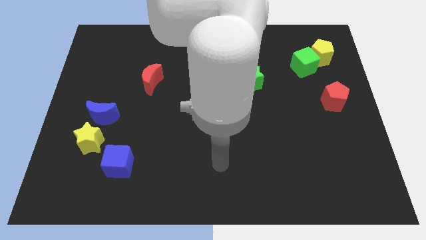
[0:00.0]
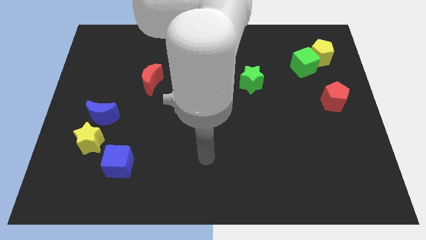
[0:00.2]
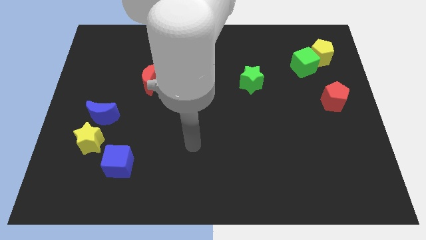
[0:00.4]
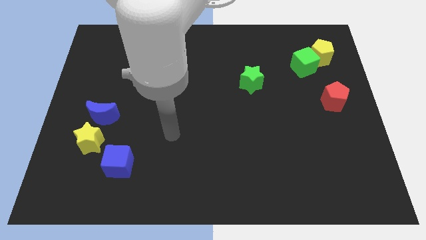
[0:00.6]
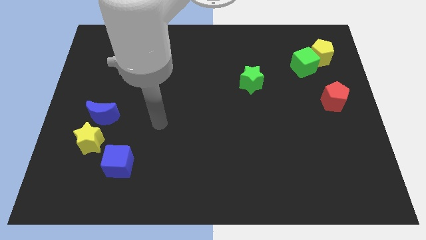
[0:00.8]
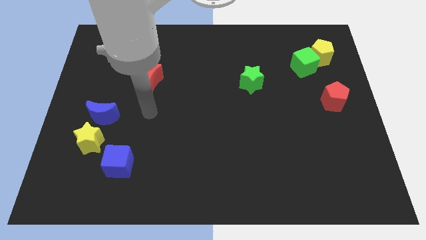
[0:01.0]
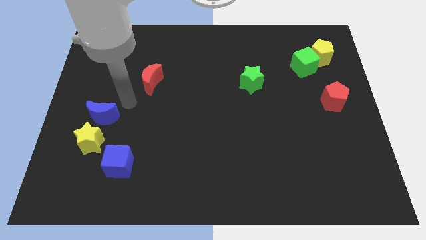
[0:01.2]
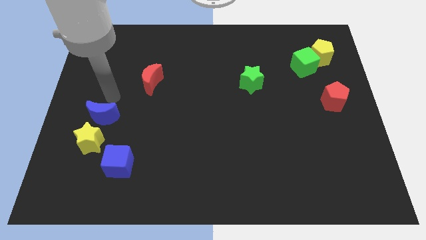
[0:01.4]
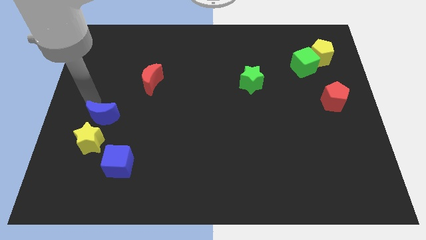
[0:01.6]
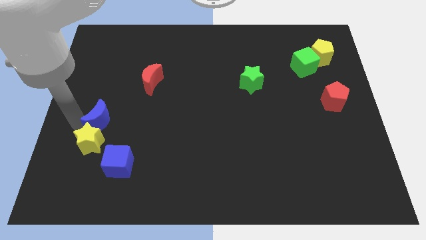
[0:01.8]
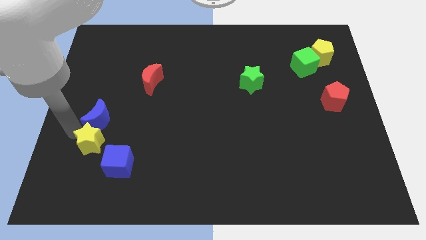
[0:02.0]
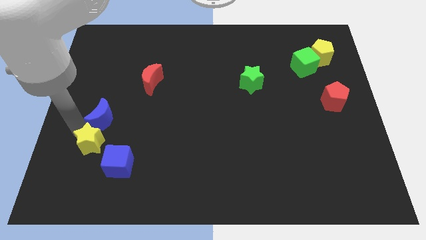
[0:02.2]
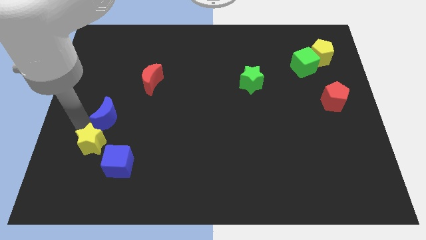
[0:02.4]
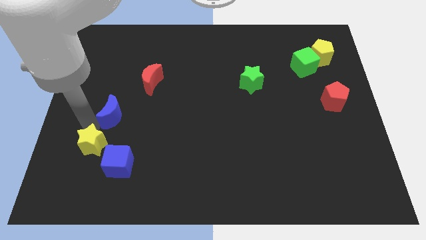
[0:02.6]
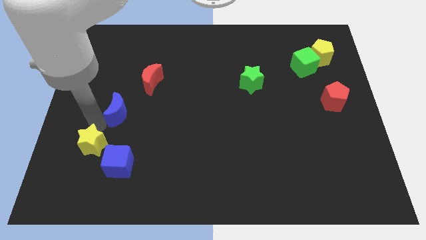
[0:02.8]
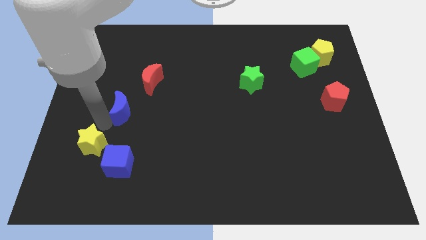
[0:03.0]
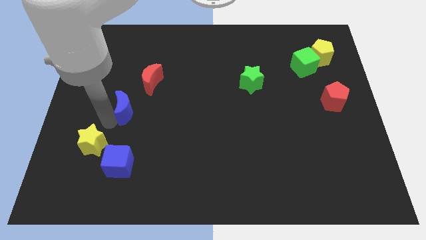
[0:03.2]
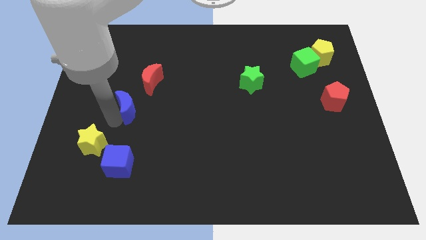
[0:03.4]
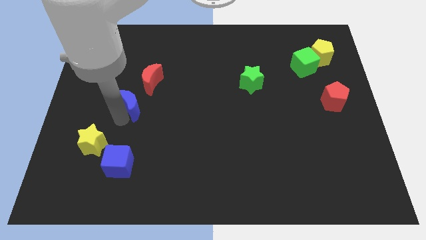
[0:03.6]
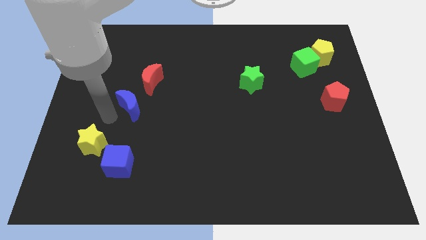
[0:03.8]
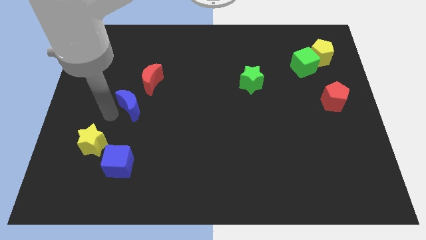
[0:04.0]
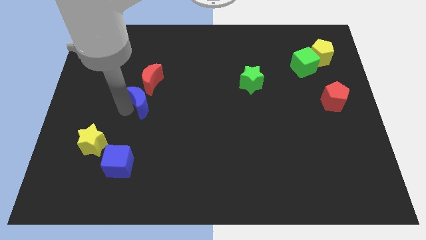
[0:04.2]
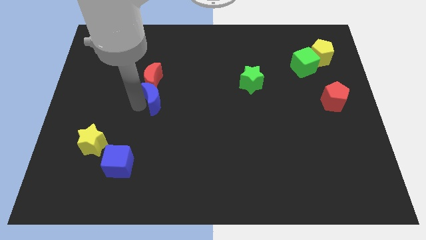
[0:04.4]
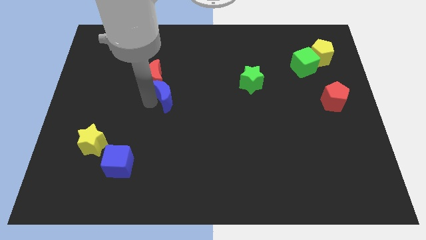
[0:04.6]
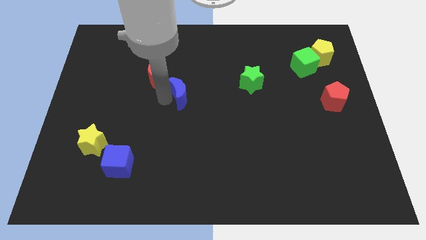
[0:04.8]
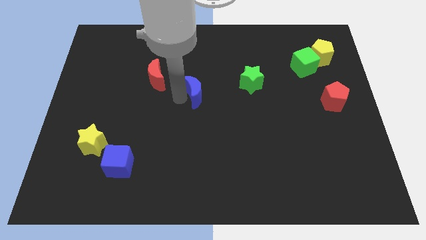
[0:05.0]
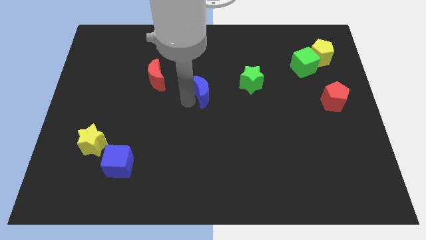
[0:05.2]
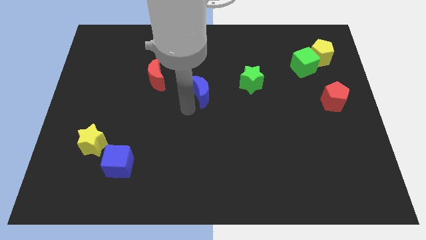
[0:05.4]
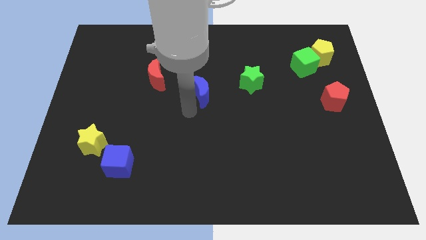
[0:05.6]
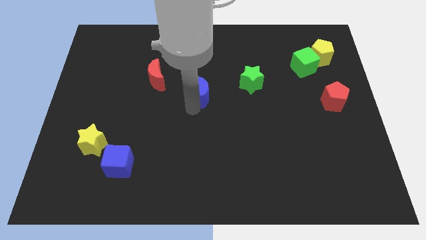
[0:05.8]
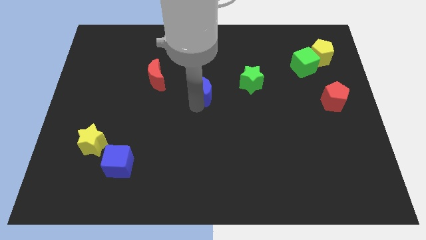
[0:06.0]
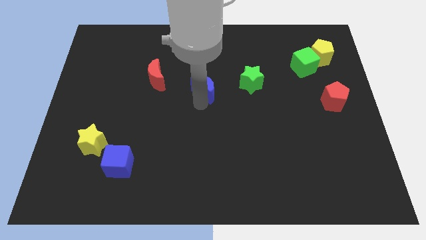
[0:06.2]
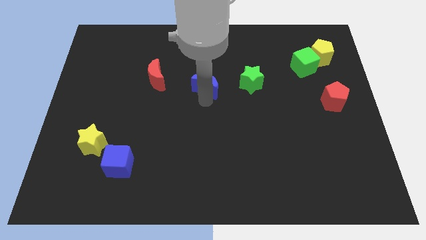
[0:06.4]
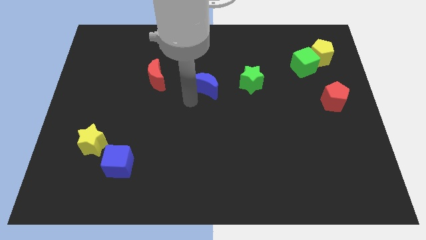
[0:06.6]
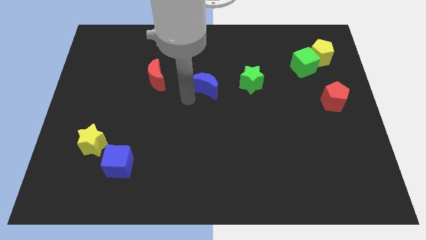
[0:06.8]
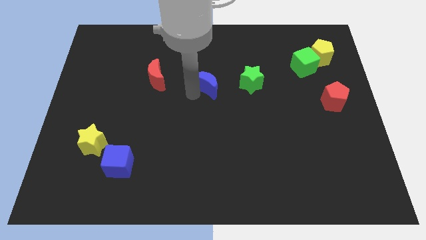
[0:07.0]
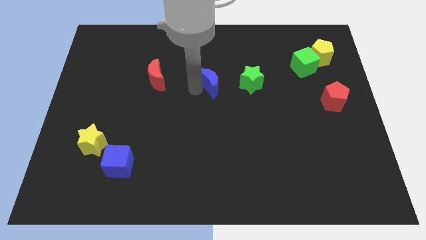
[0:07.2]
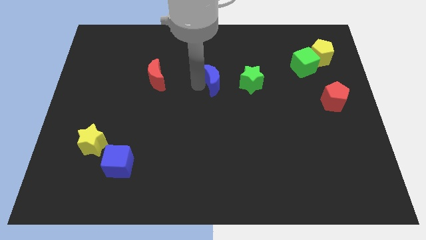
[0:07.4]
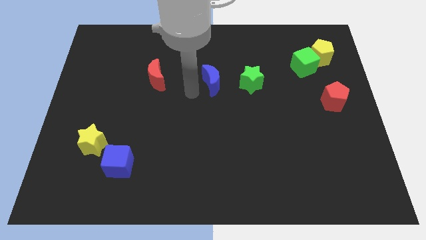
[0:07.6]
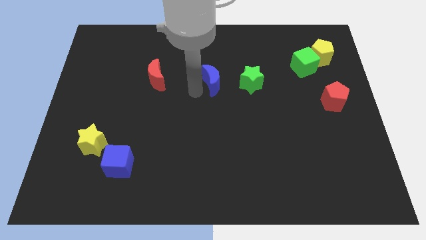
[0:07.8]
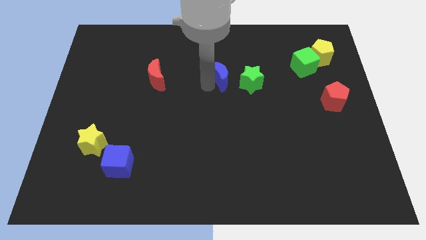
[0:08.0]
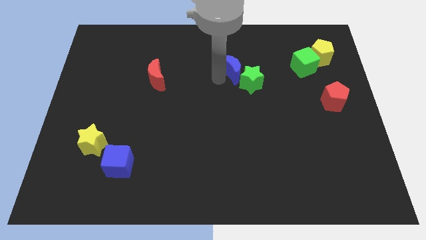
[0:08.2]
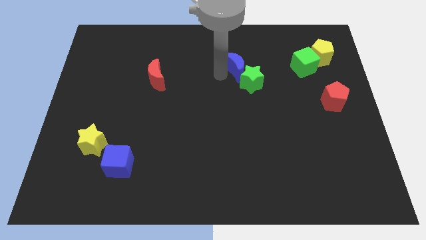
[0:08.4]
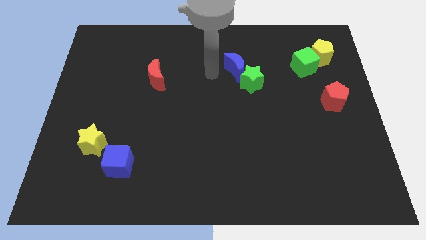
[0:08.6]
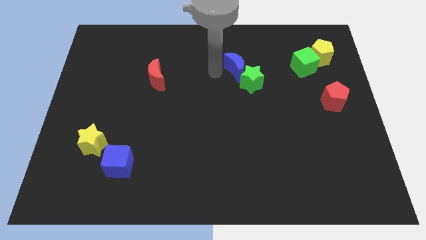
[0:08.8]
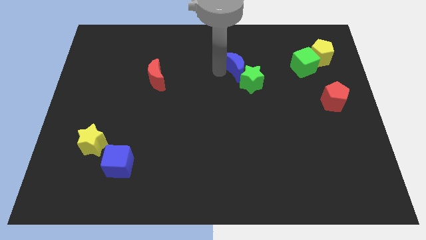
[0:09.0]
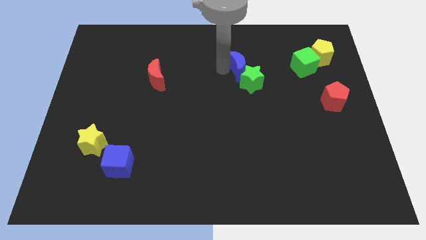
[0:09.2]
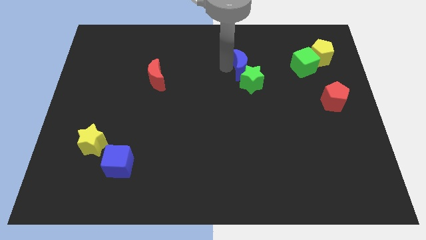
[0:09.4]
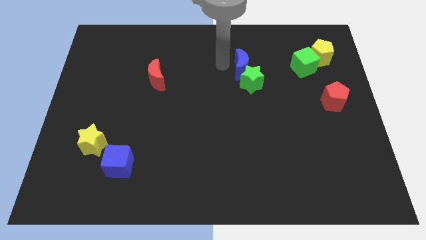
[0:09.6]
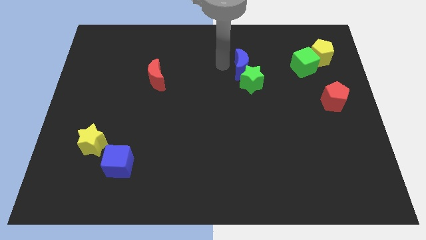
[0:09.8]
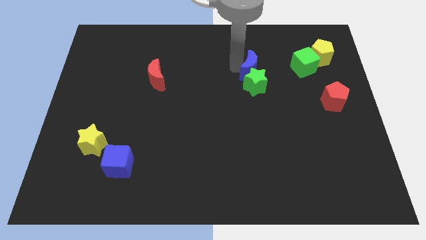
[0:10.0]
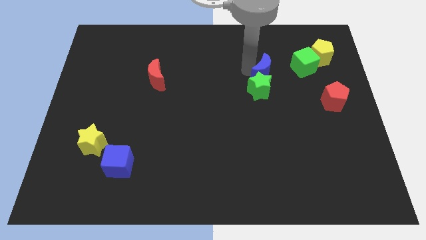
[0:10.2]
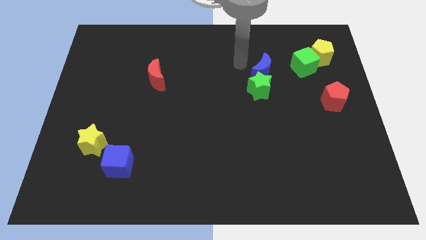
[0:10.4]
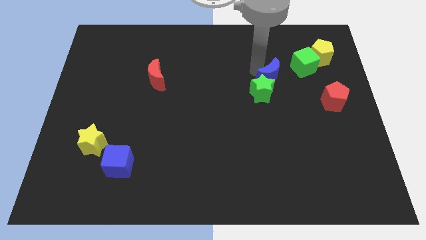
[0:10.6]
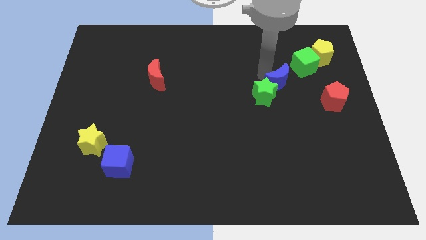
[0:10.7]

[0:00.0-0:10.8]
slide the blue moon right of the green star

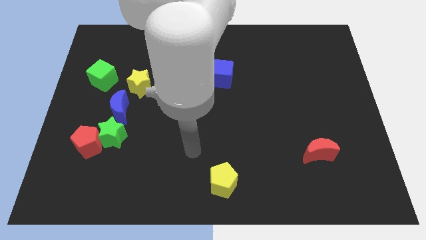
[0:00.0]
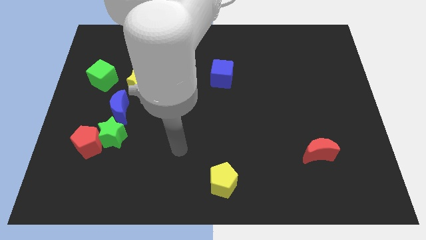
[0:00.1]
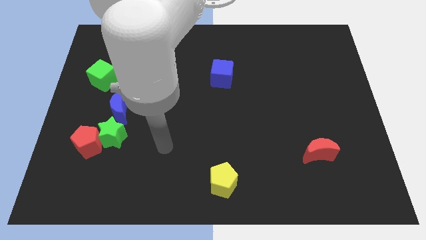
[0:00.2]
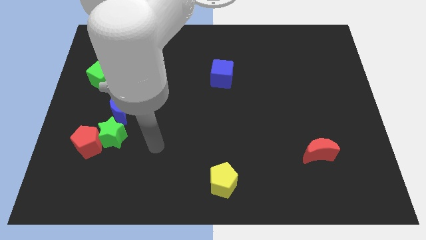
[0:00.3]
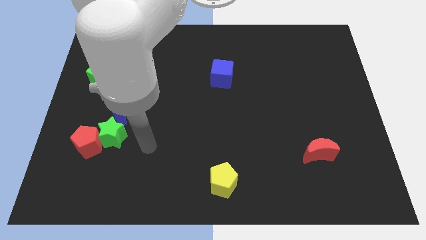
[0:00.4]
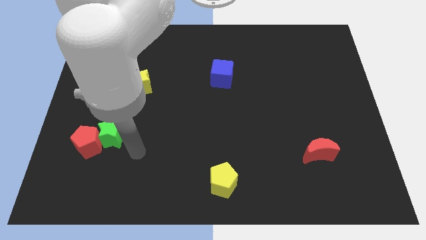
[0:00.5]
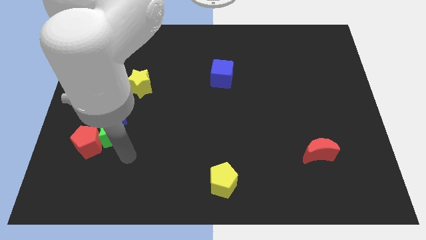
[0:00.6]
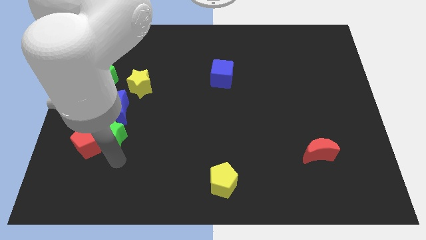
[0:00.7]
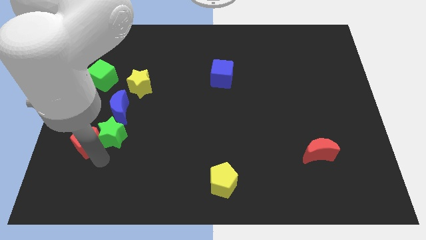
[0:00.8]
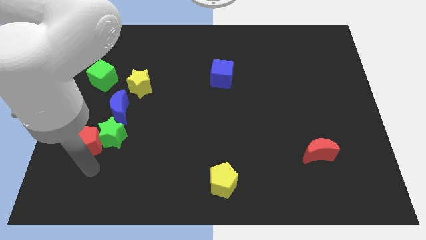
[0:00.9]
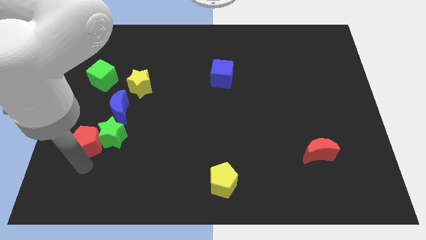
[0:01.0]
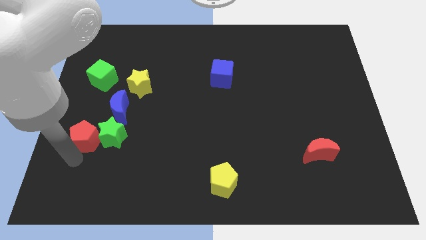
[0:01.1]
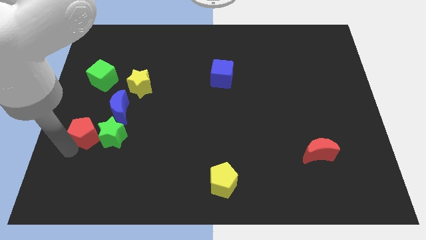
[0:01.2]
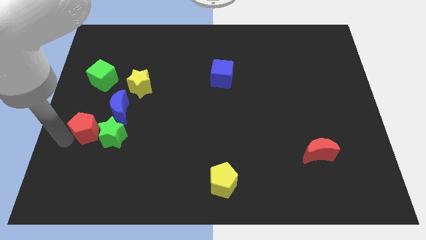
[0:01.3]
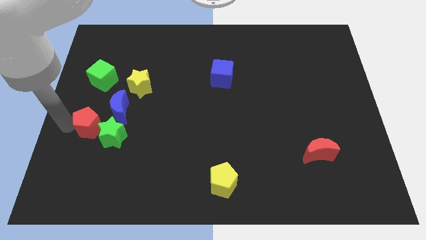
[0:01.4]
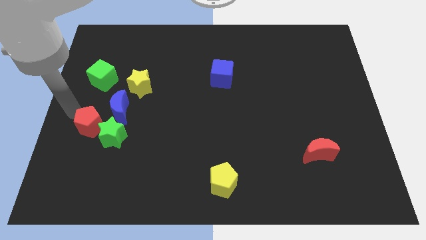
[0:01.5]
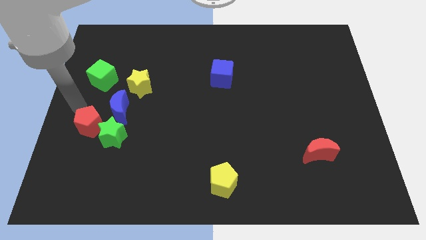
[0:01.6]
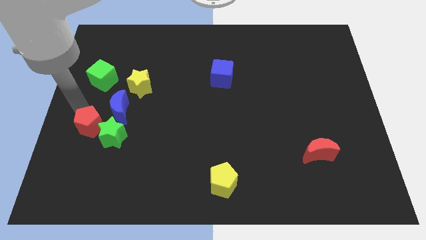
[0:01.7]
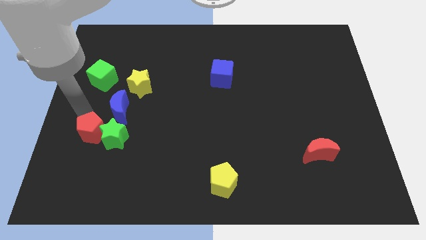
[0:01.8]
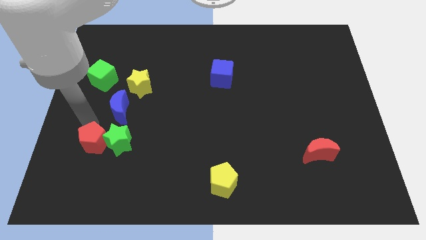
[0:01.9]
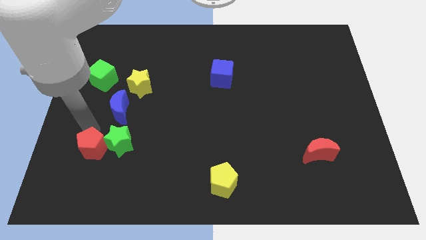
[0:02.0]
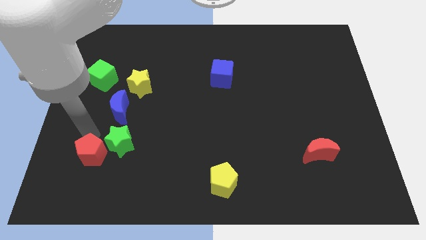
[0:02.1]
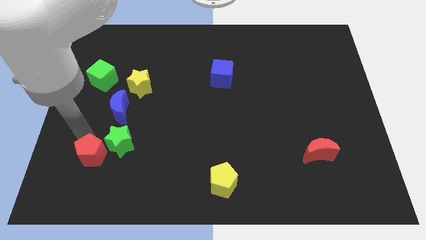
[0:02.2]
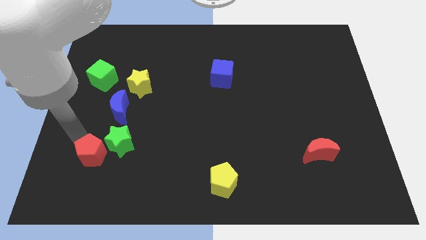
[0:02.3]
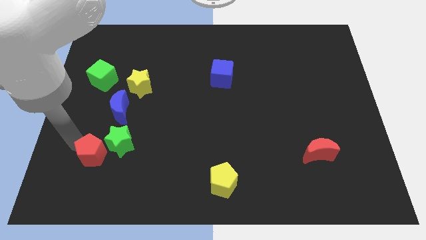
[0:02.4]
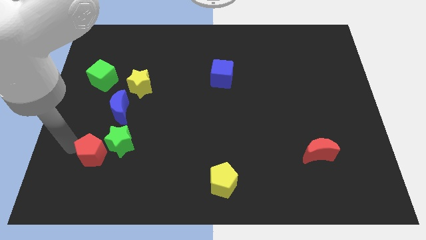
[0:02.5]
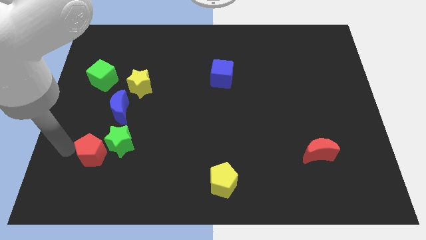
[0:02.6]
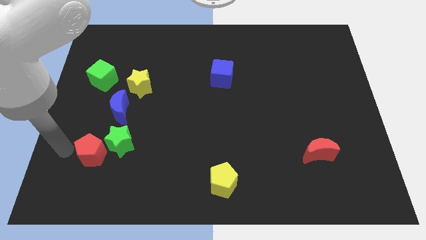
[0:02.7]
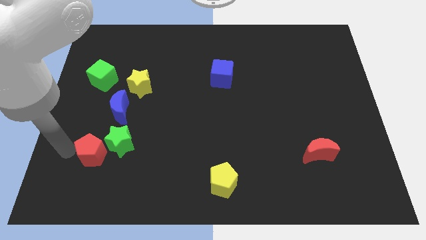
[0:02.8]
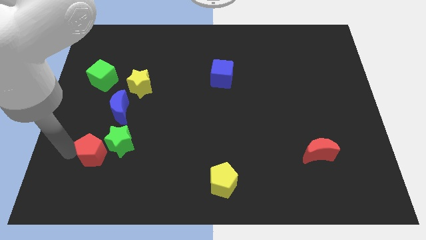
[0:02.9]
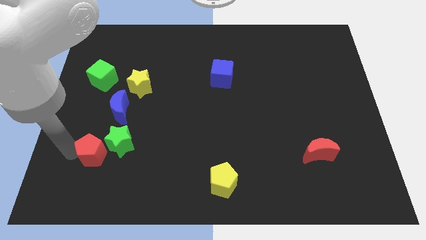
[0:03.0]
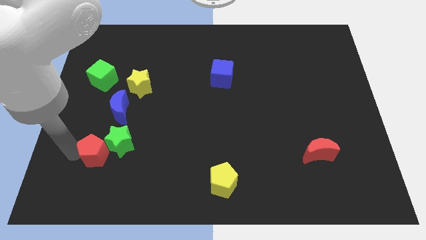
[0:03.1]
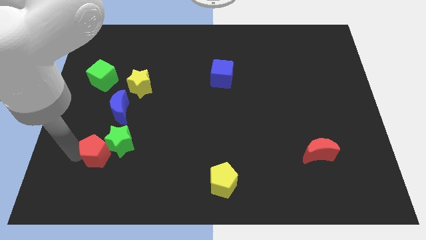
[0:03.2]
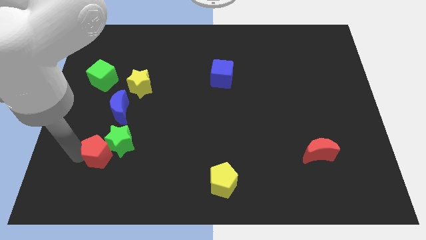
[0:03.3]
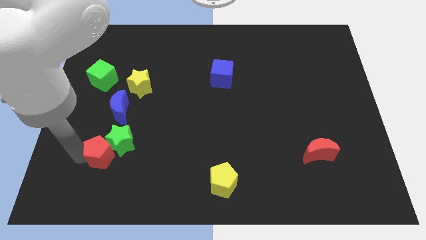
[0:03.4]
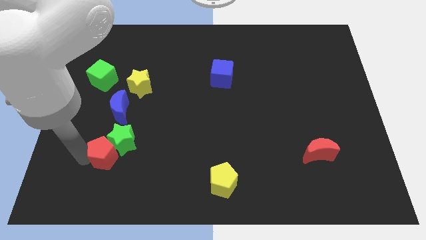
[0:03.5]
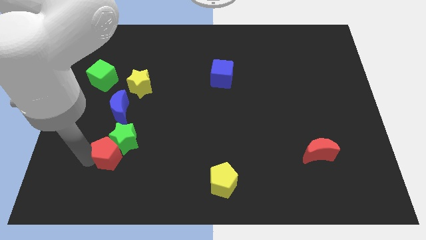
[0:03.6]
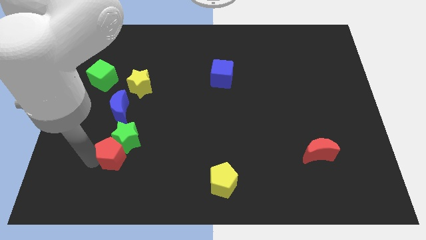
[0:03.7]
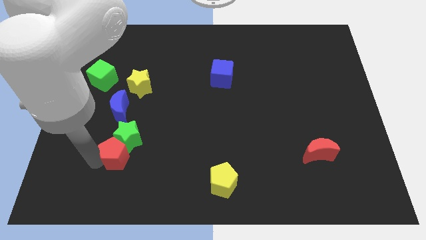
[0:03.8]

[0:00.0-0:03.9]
slide the red pentagon diagonally down and to the right of the green star
